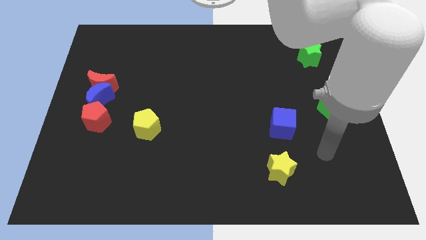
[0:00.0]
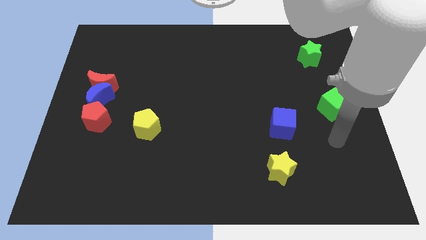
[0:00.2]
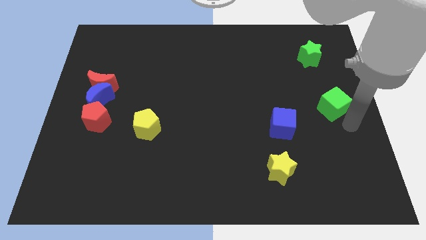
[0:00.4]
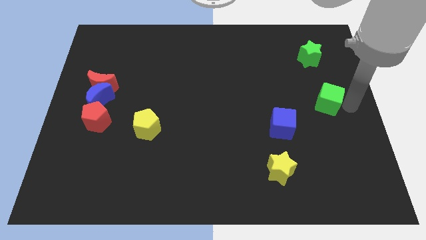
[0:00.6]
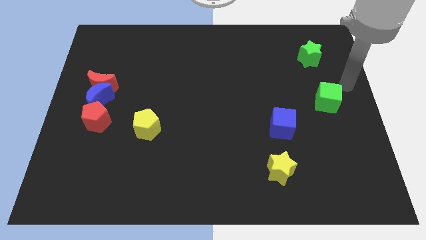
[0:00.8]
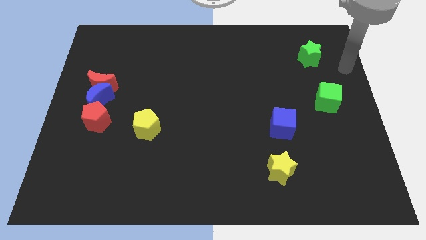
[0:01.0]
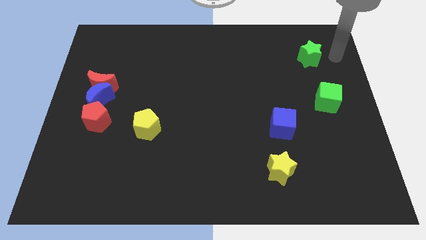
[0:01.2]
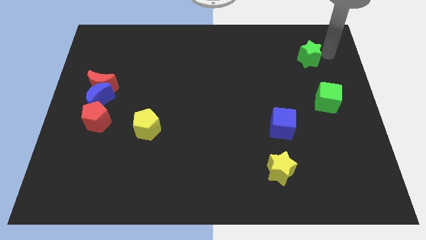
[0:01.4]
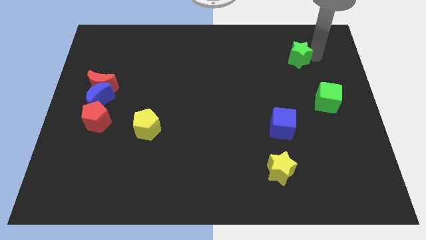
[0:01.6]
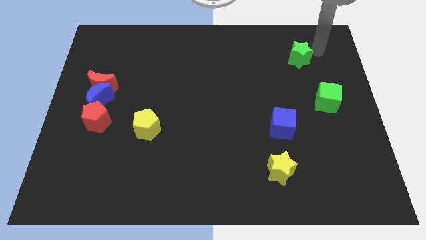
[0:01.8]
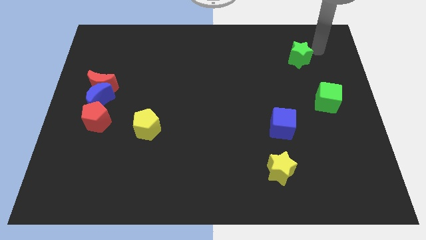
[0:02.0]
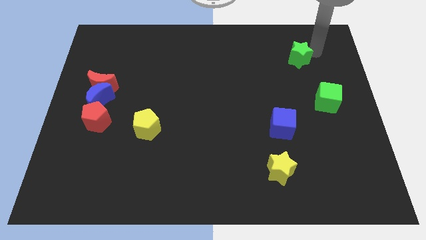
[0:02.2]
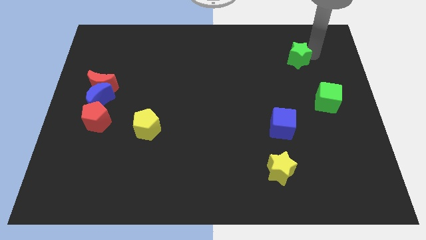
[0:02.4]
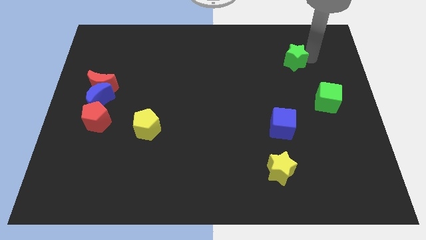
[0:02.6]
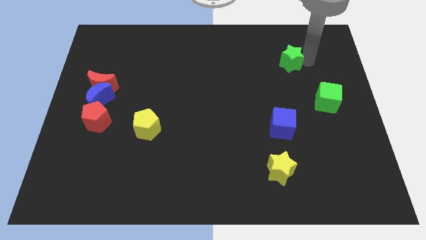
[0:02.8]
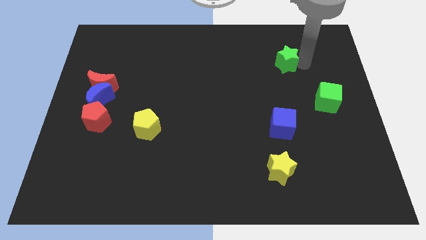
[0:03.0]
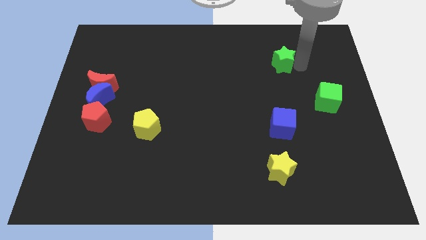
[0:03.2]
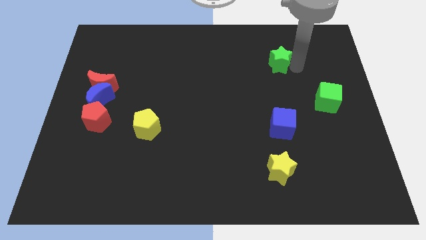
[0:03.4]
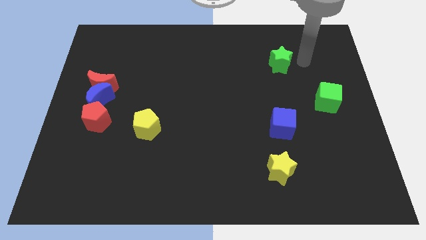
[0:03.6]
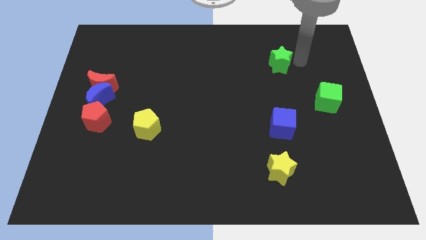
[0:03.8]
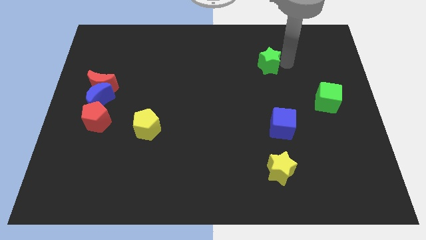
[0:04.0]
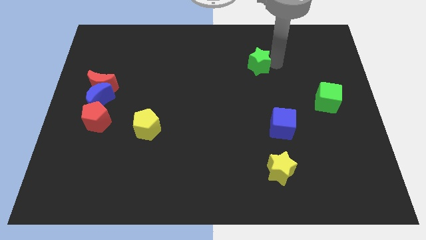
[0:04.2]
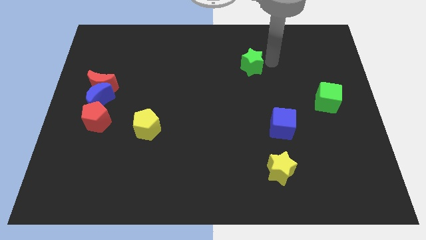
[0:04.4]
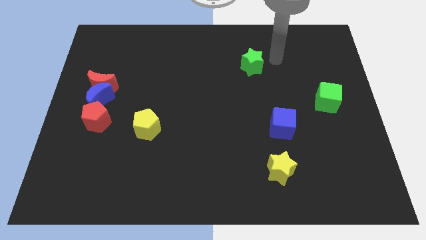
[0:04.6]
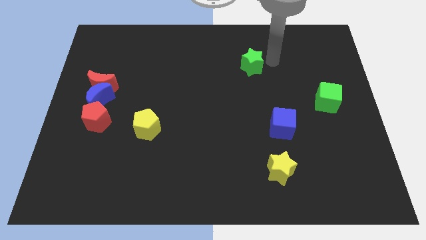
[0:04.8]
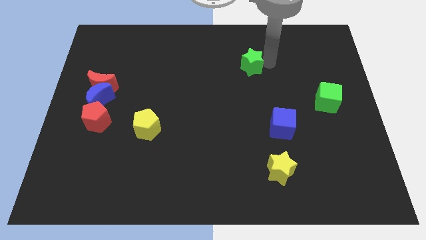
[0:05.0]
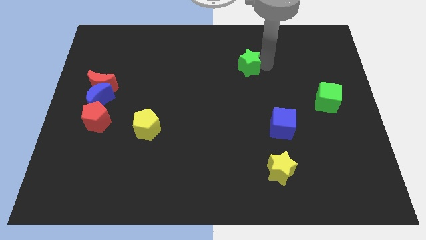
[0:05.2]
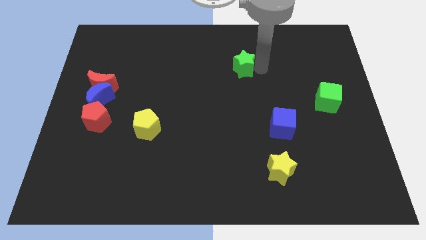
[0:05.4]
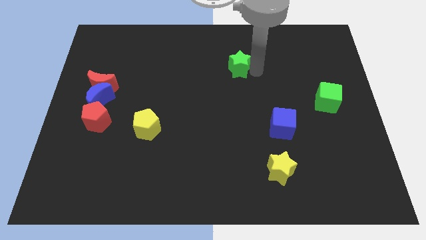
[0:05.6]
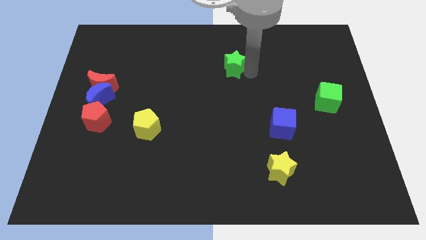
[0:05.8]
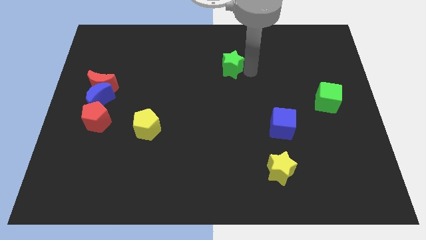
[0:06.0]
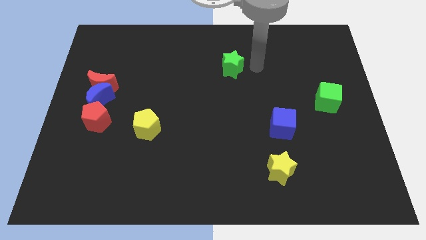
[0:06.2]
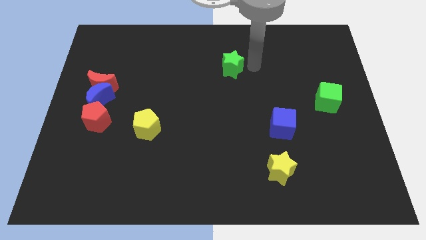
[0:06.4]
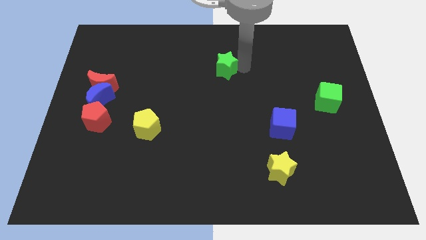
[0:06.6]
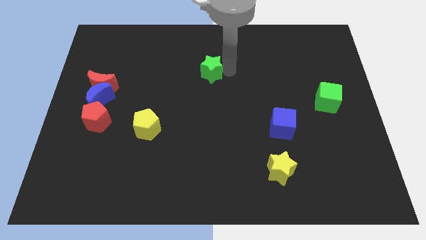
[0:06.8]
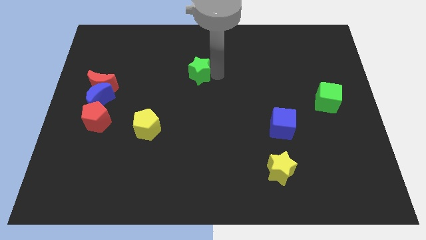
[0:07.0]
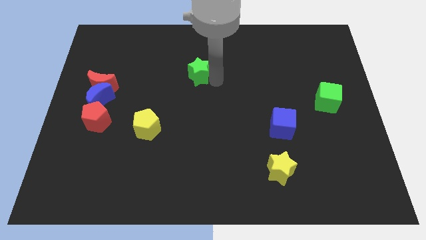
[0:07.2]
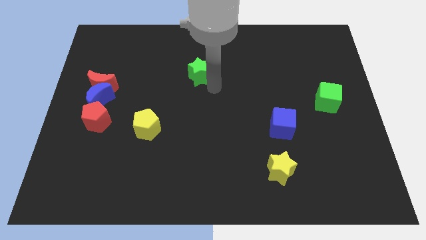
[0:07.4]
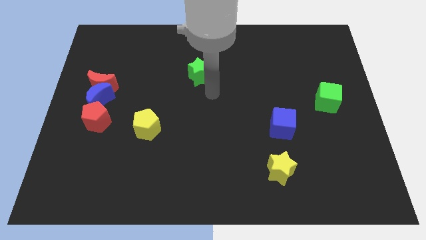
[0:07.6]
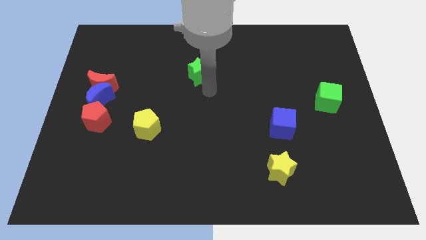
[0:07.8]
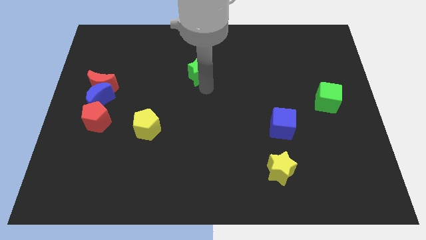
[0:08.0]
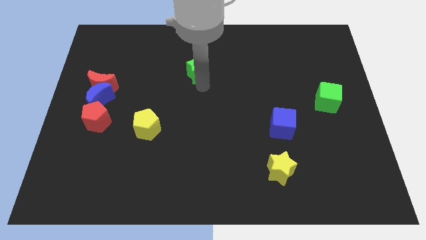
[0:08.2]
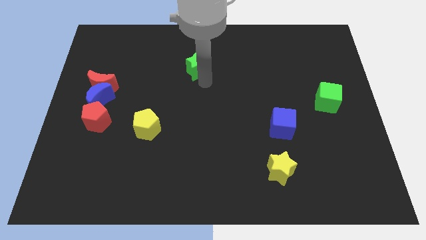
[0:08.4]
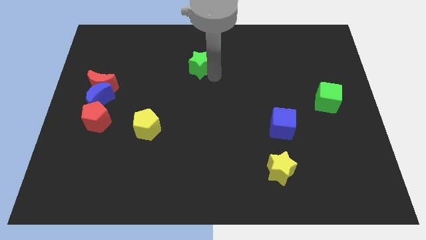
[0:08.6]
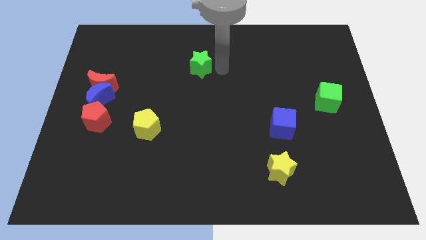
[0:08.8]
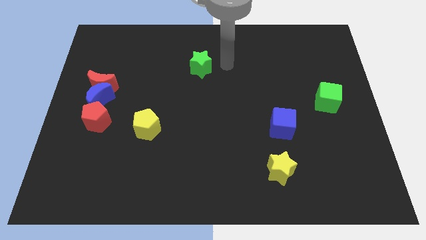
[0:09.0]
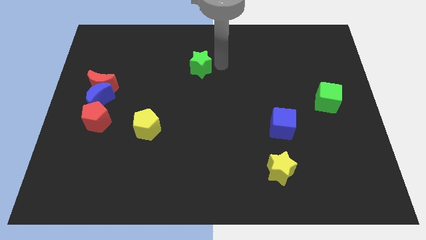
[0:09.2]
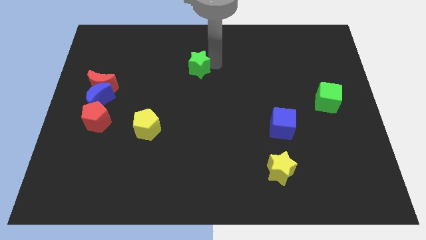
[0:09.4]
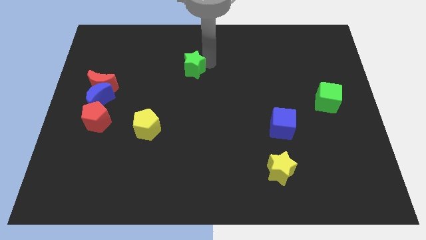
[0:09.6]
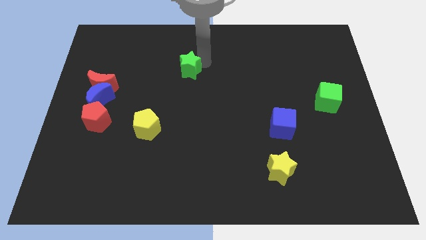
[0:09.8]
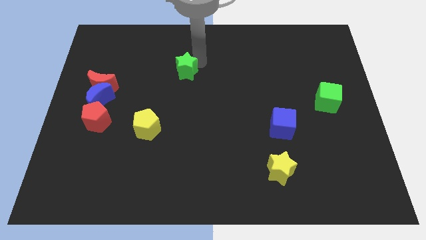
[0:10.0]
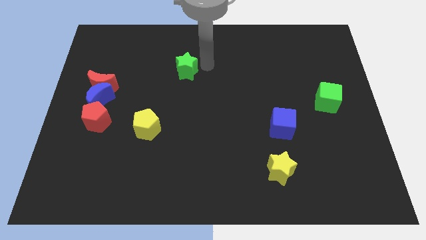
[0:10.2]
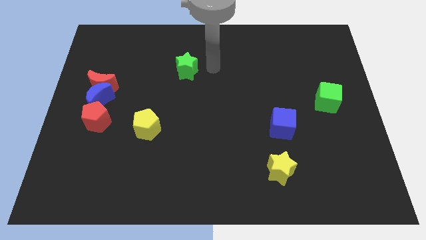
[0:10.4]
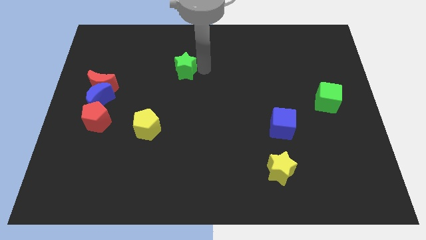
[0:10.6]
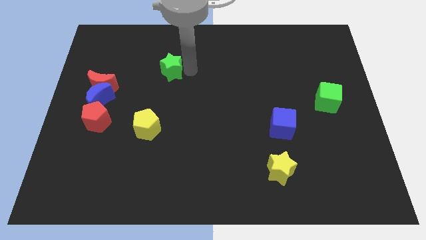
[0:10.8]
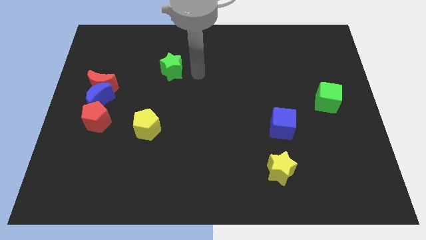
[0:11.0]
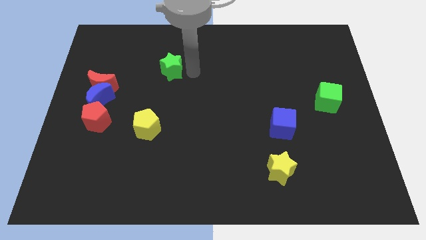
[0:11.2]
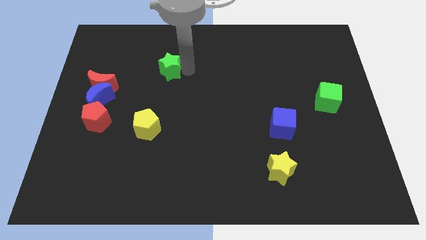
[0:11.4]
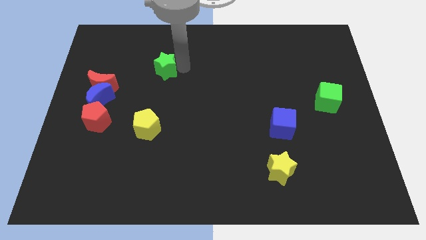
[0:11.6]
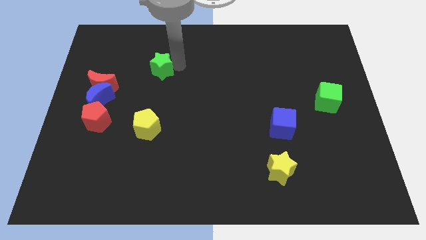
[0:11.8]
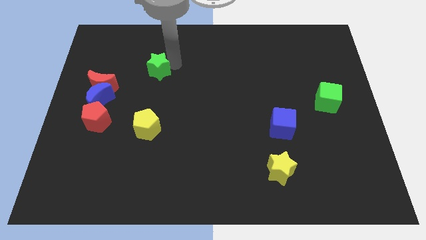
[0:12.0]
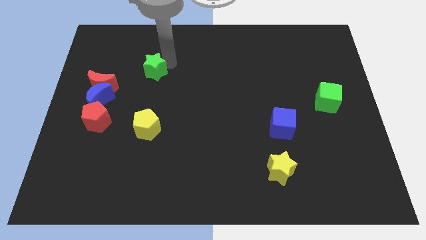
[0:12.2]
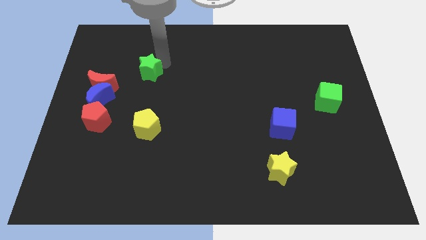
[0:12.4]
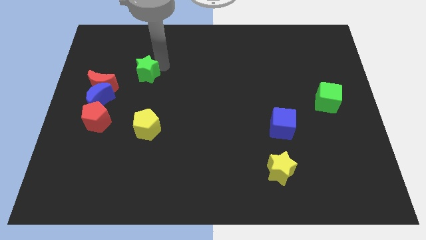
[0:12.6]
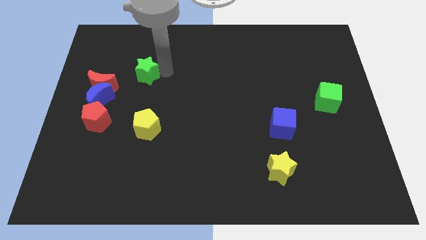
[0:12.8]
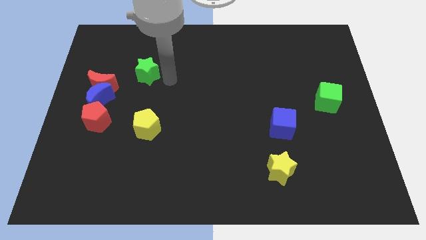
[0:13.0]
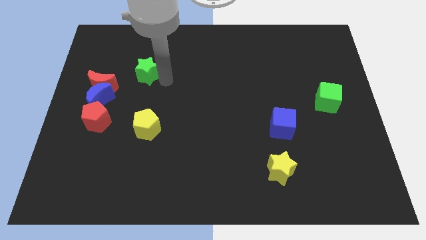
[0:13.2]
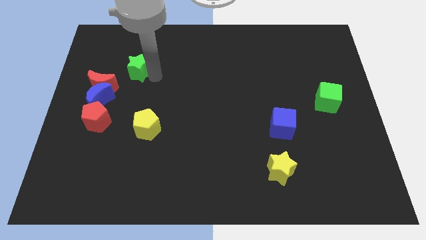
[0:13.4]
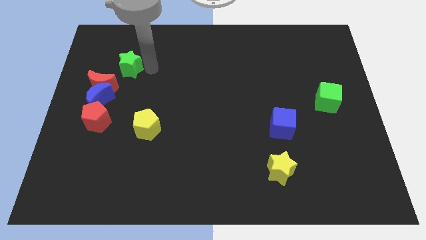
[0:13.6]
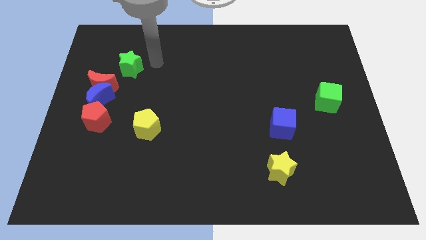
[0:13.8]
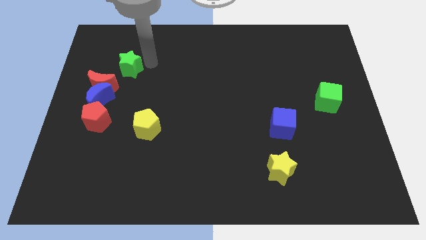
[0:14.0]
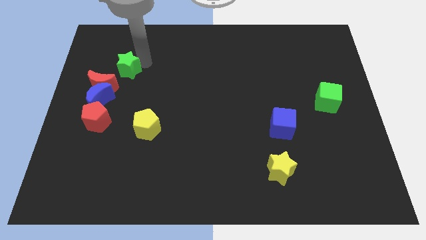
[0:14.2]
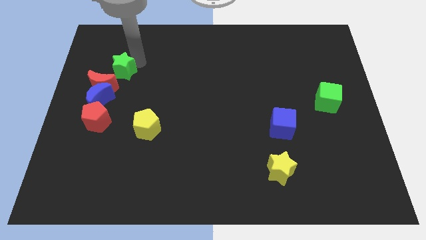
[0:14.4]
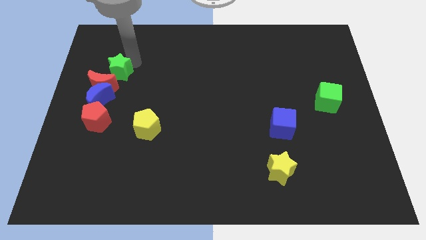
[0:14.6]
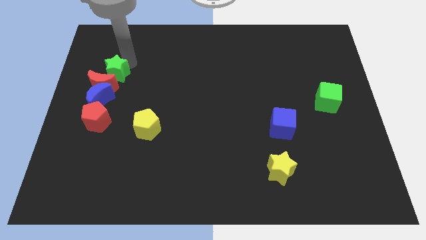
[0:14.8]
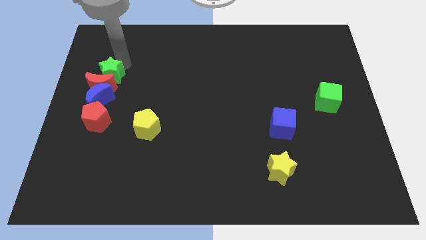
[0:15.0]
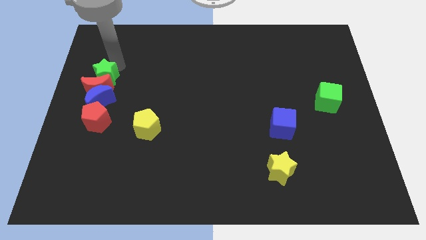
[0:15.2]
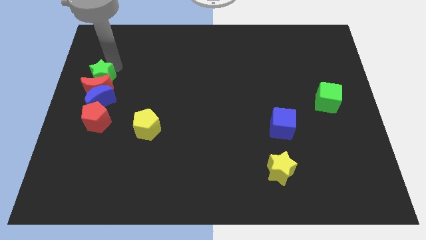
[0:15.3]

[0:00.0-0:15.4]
push the green star to the center left
